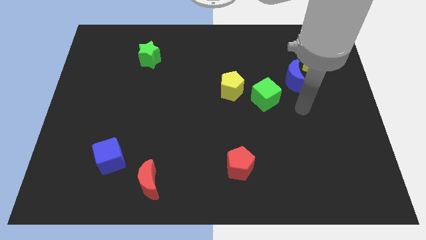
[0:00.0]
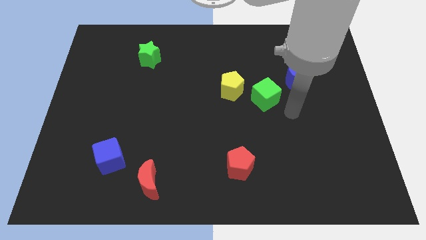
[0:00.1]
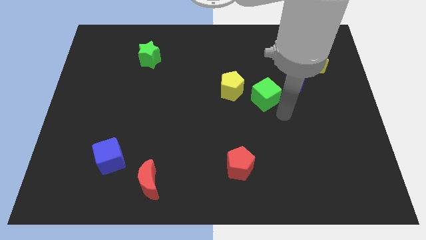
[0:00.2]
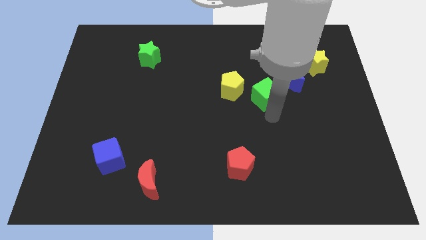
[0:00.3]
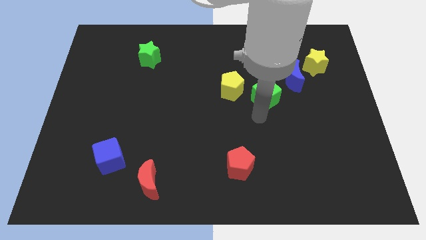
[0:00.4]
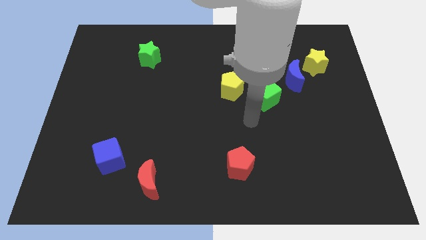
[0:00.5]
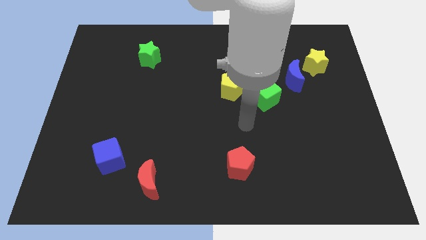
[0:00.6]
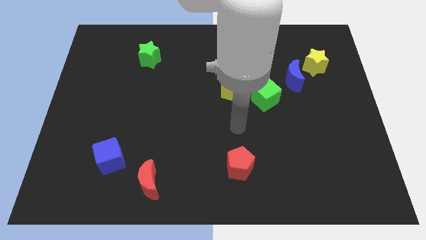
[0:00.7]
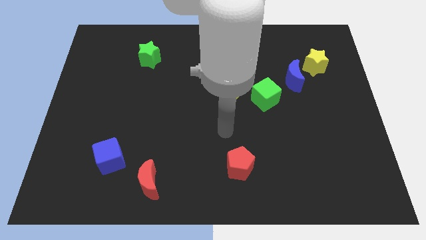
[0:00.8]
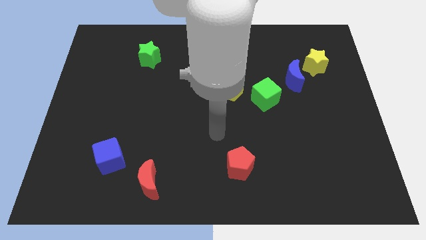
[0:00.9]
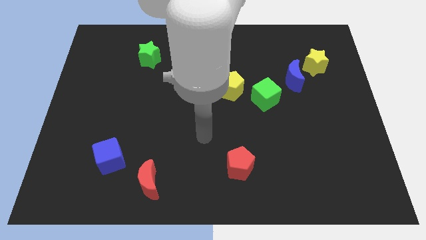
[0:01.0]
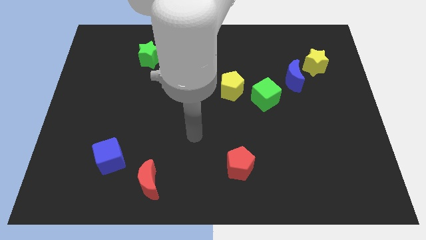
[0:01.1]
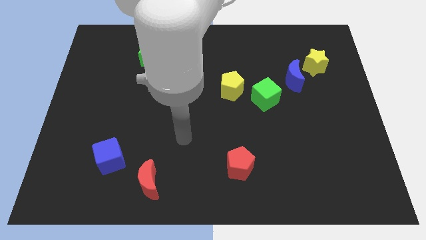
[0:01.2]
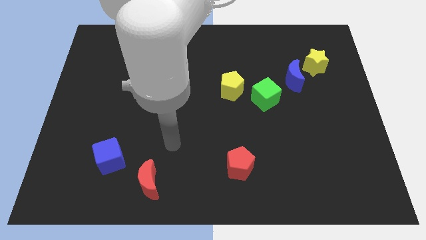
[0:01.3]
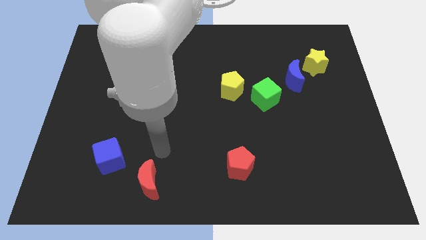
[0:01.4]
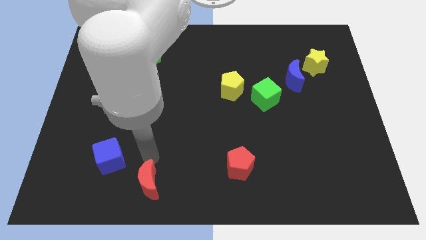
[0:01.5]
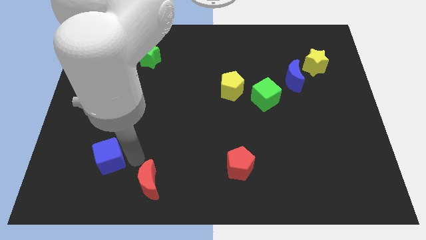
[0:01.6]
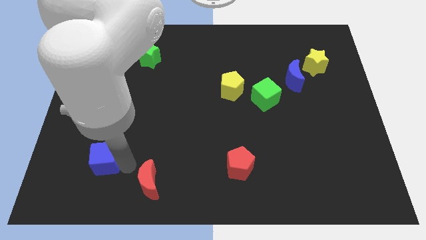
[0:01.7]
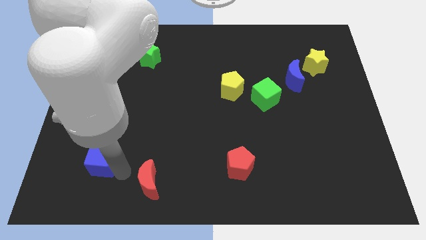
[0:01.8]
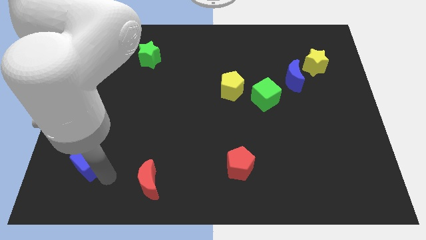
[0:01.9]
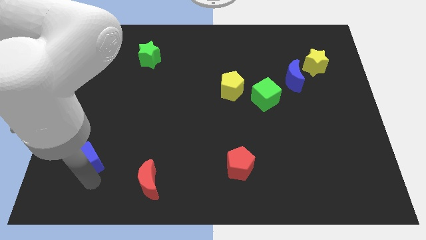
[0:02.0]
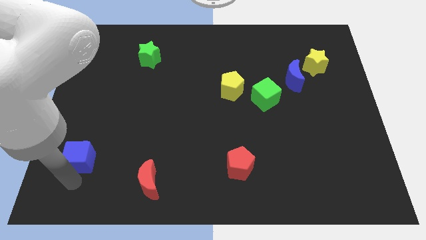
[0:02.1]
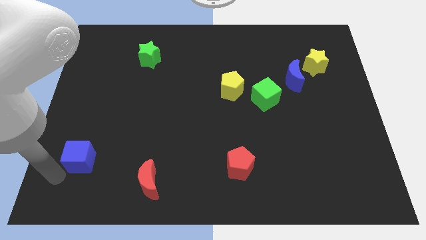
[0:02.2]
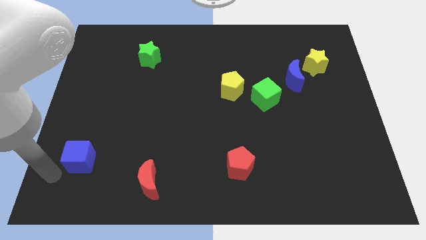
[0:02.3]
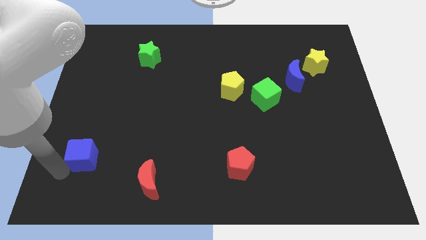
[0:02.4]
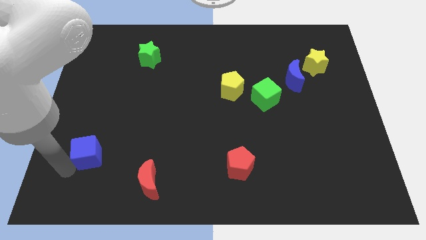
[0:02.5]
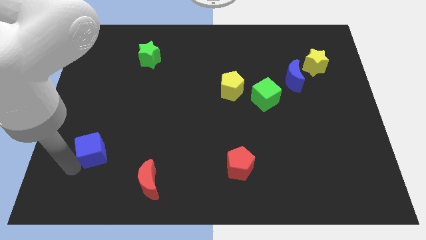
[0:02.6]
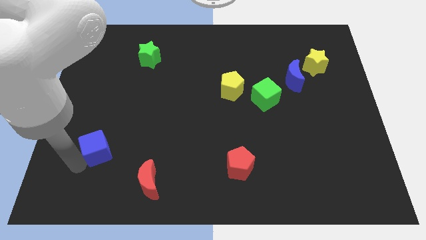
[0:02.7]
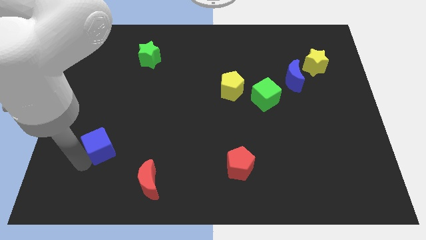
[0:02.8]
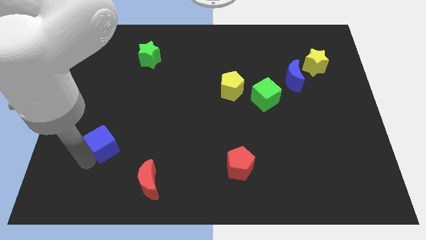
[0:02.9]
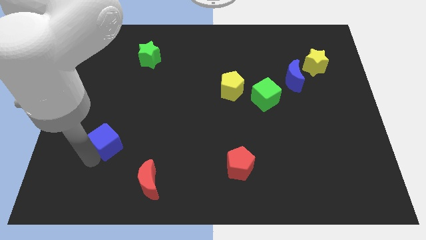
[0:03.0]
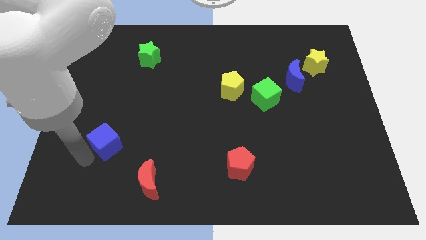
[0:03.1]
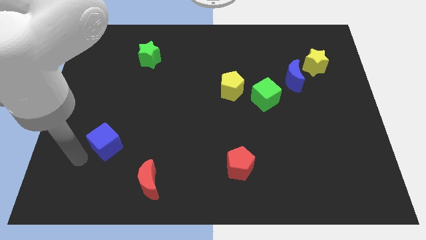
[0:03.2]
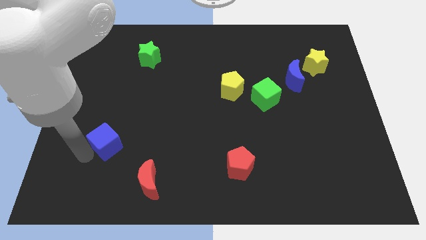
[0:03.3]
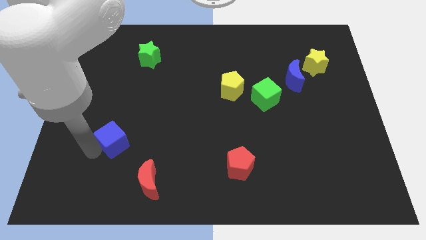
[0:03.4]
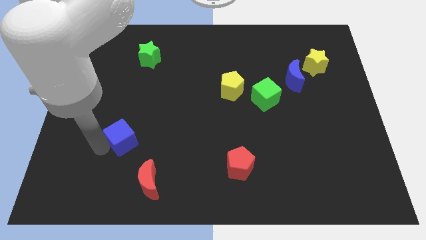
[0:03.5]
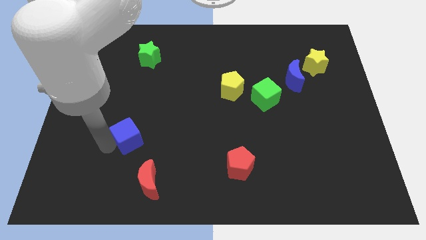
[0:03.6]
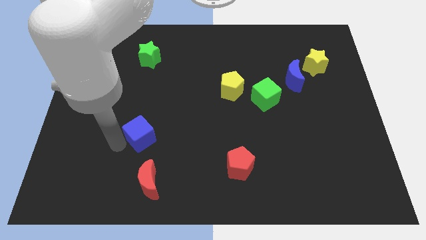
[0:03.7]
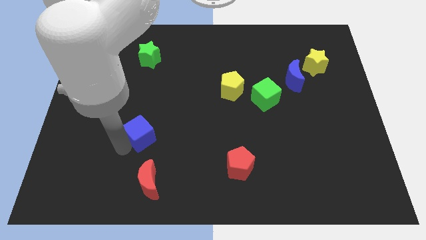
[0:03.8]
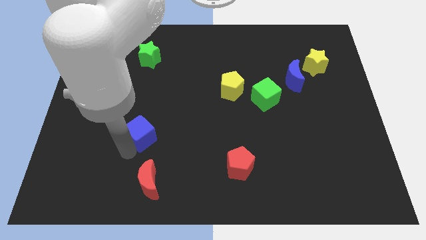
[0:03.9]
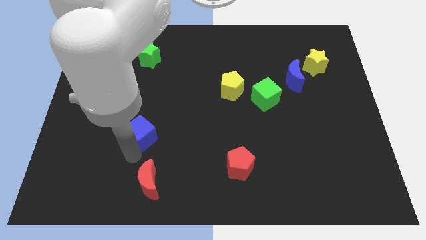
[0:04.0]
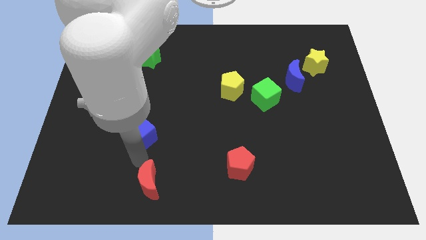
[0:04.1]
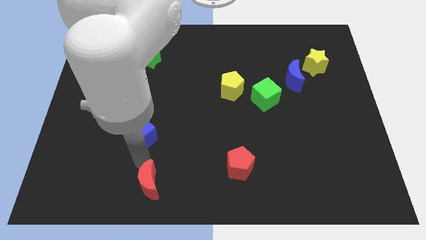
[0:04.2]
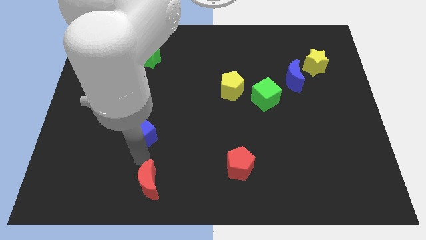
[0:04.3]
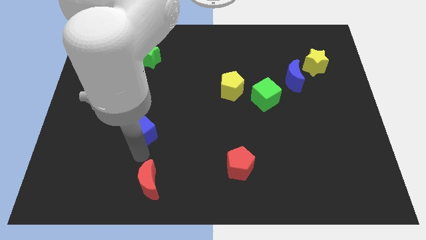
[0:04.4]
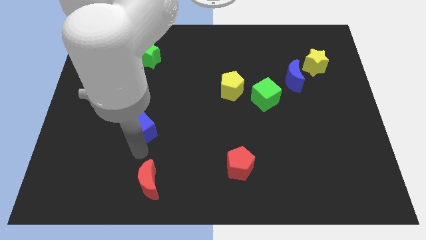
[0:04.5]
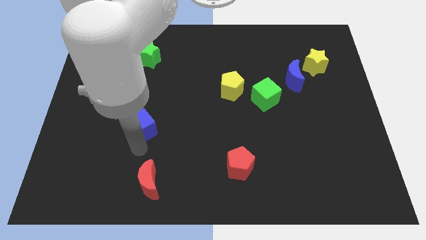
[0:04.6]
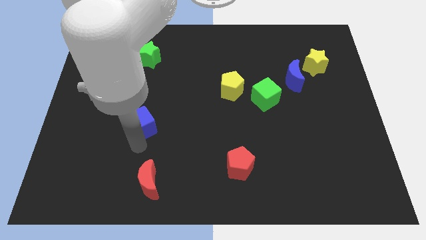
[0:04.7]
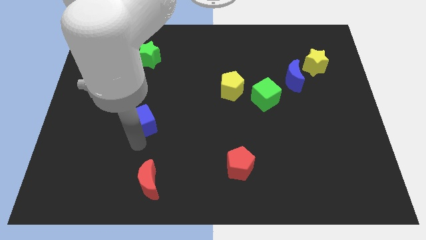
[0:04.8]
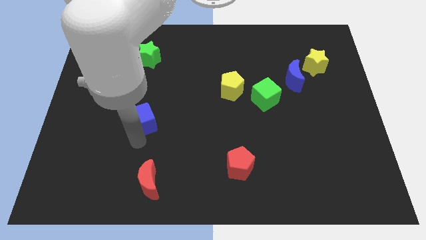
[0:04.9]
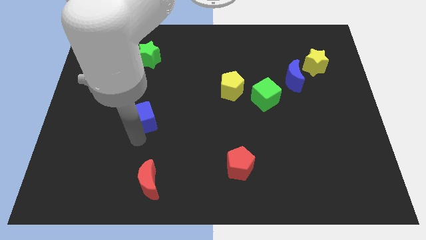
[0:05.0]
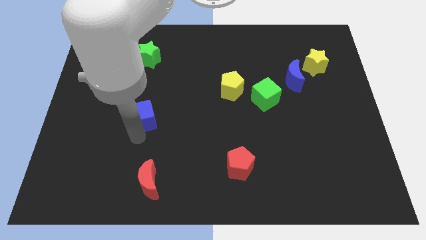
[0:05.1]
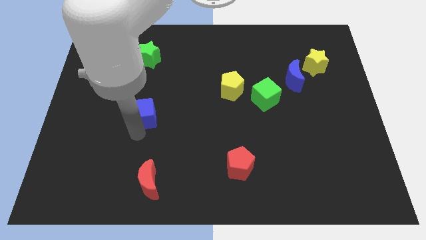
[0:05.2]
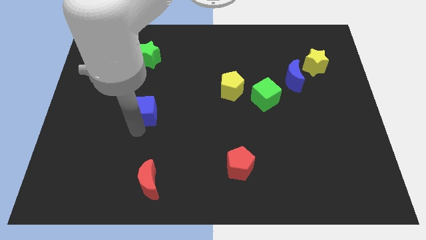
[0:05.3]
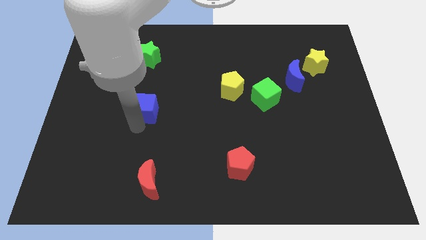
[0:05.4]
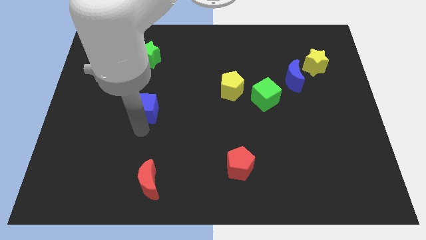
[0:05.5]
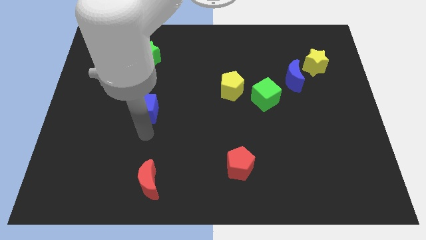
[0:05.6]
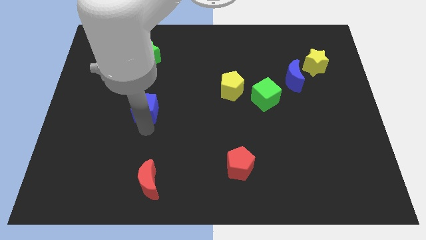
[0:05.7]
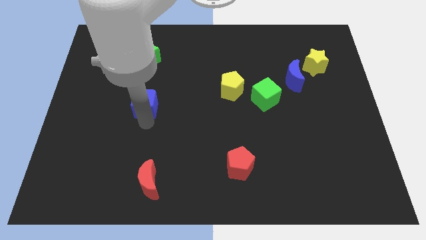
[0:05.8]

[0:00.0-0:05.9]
put the blue cube to the bottom side of the green star

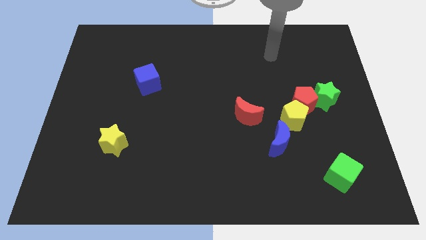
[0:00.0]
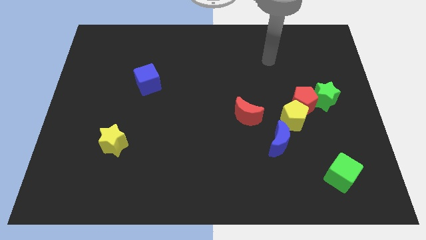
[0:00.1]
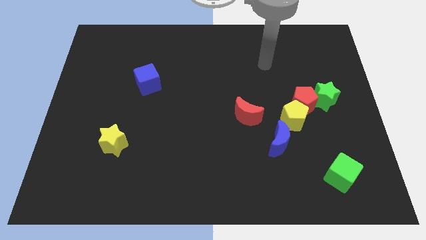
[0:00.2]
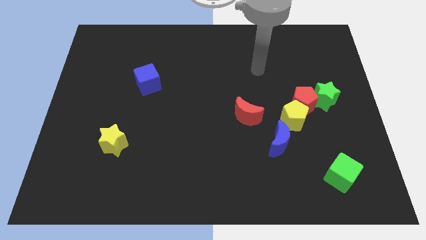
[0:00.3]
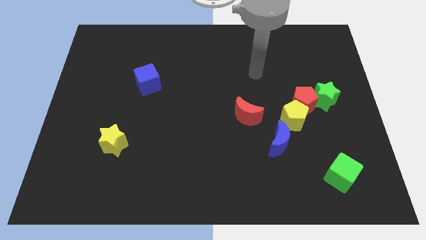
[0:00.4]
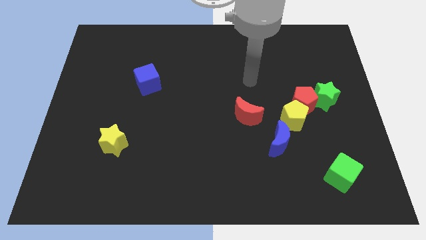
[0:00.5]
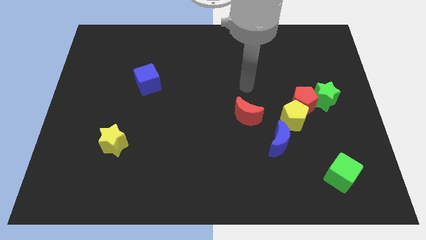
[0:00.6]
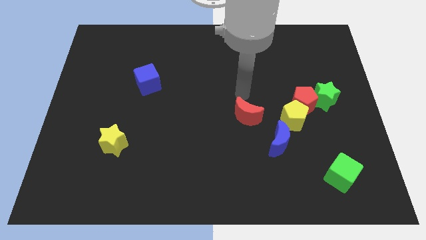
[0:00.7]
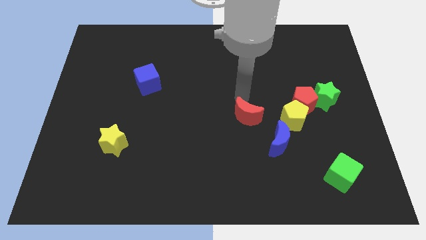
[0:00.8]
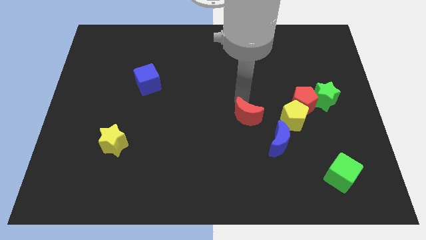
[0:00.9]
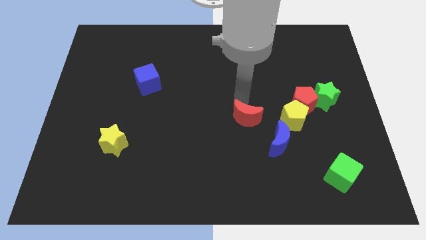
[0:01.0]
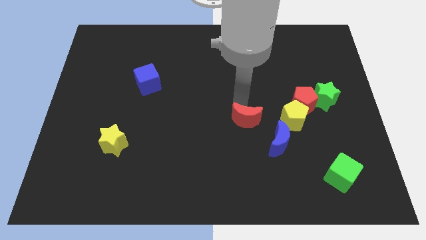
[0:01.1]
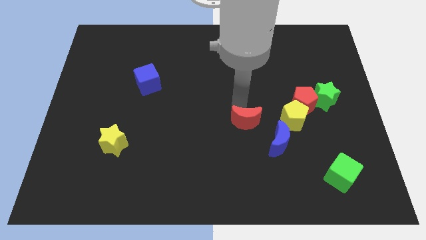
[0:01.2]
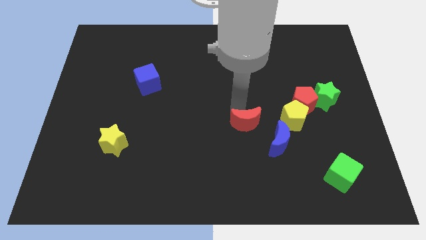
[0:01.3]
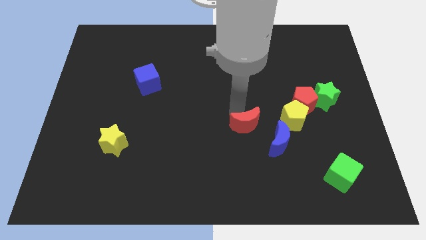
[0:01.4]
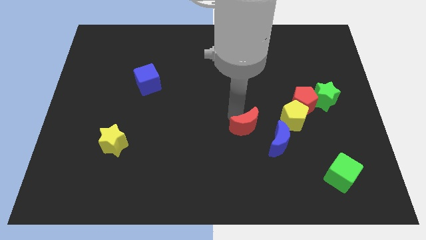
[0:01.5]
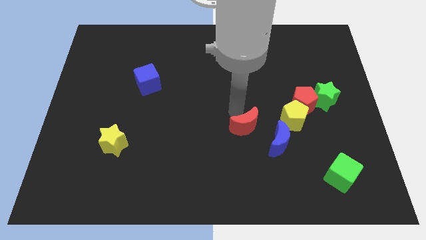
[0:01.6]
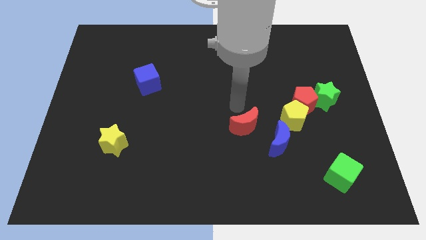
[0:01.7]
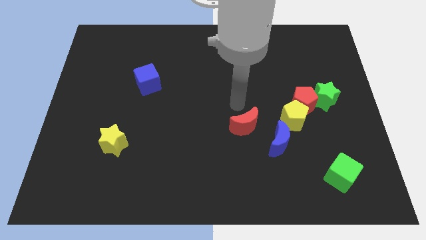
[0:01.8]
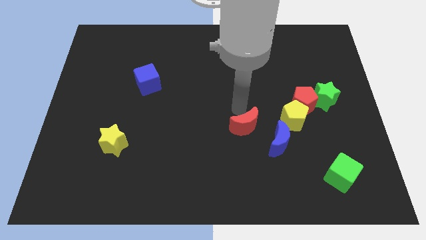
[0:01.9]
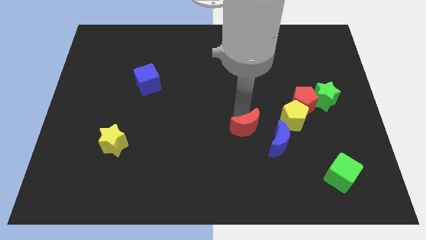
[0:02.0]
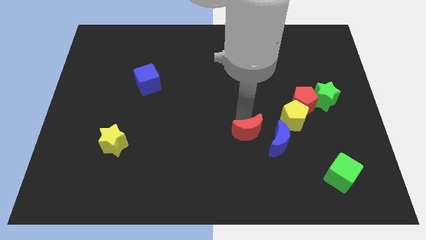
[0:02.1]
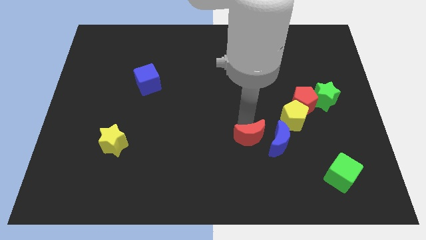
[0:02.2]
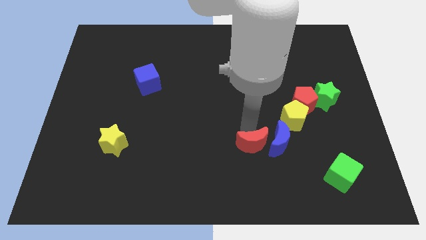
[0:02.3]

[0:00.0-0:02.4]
put the red moon to the bottom left side of the blue moon
